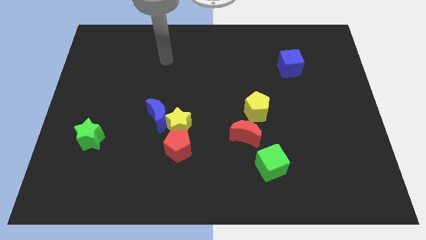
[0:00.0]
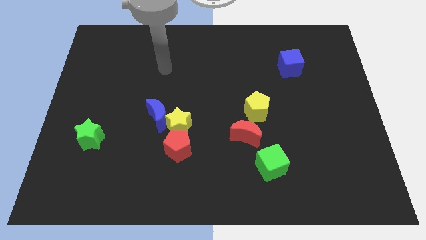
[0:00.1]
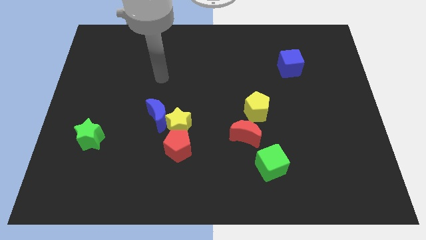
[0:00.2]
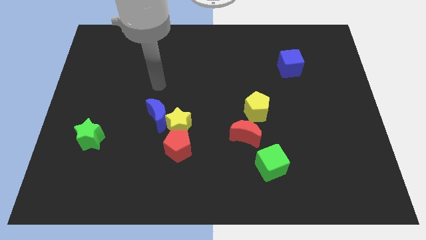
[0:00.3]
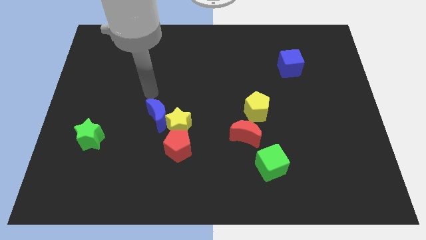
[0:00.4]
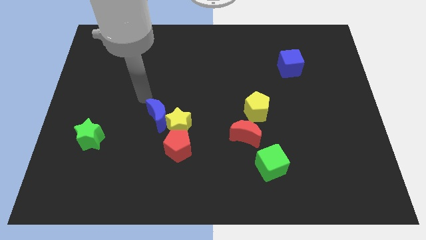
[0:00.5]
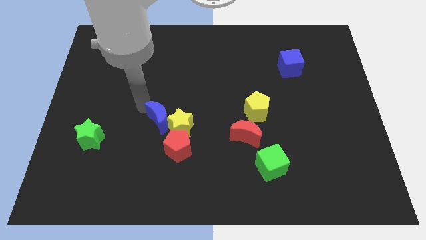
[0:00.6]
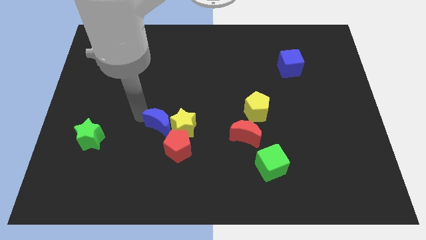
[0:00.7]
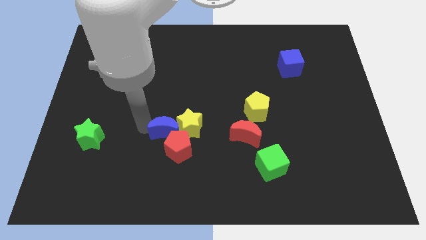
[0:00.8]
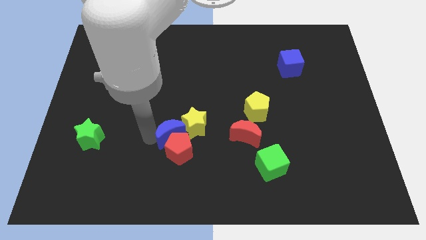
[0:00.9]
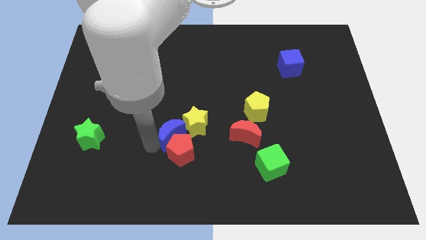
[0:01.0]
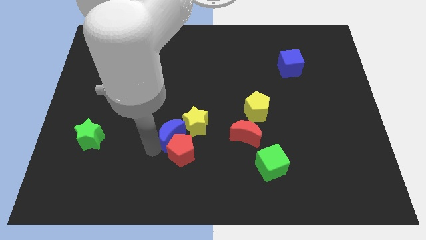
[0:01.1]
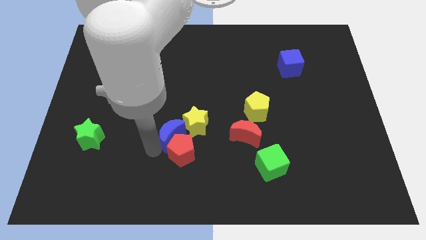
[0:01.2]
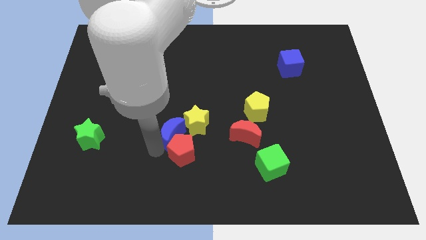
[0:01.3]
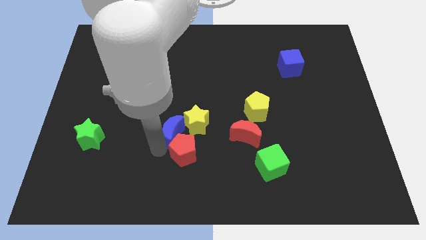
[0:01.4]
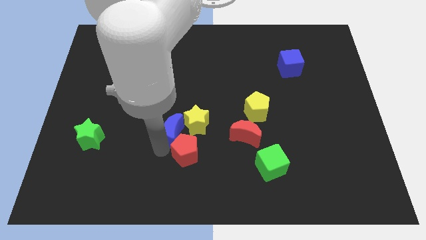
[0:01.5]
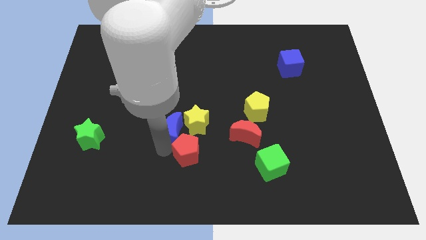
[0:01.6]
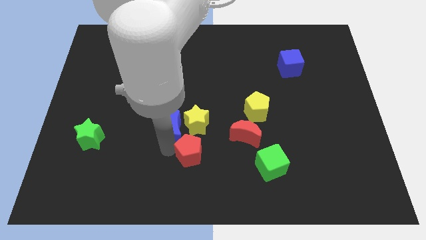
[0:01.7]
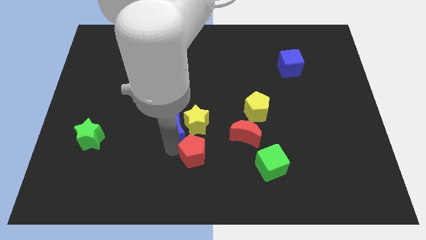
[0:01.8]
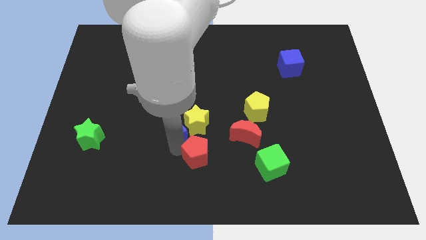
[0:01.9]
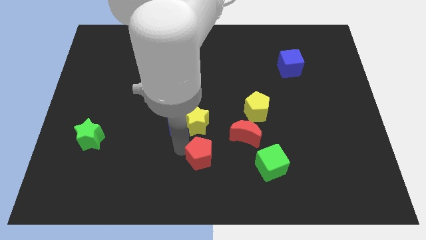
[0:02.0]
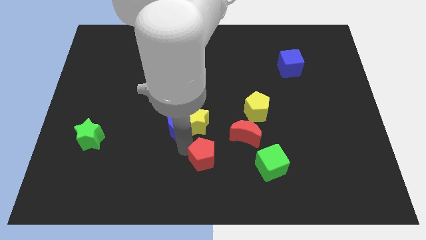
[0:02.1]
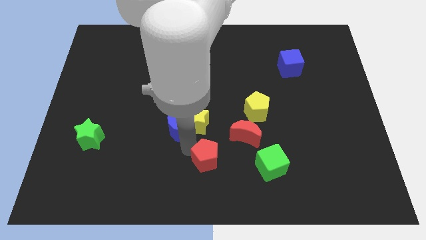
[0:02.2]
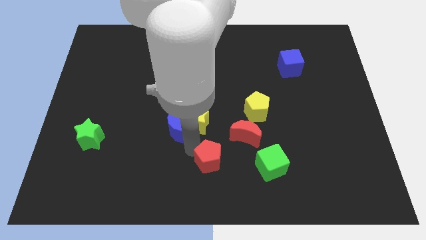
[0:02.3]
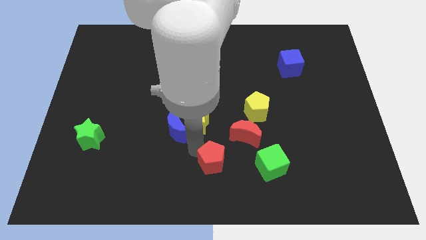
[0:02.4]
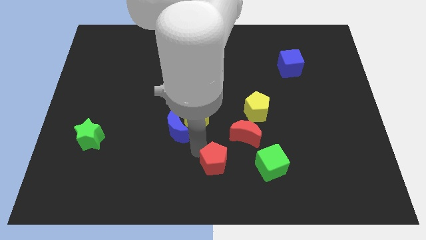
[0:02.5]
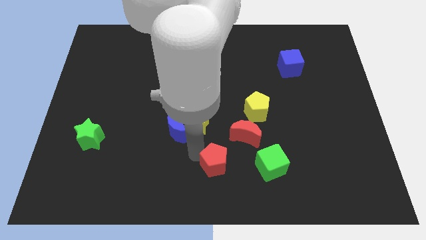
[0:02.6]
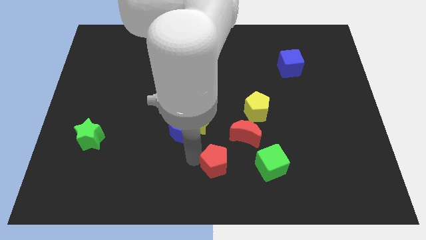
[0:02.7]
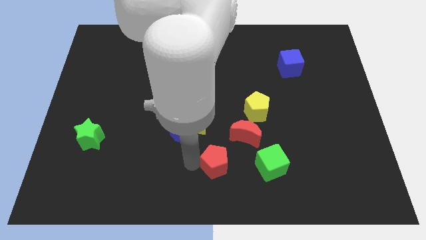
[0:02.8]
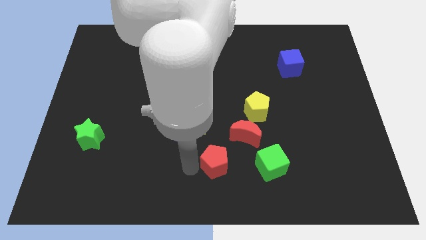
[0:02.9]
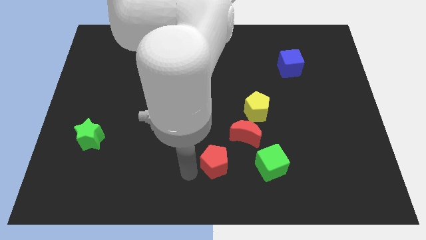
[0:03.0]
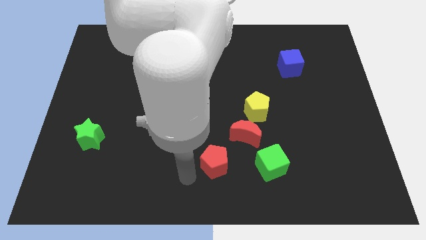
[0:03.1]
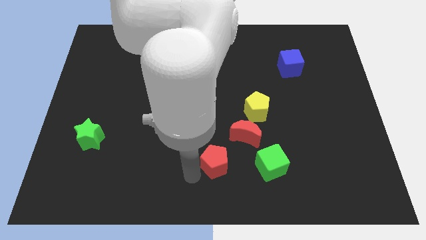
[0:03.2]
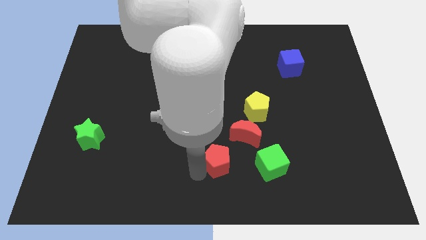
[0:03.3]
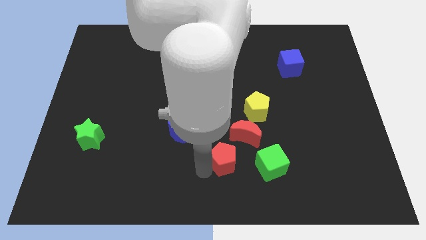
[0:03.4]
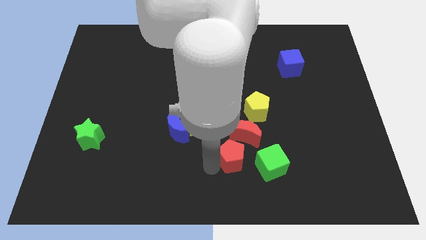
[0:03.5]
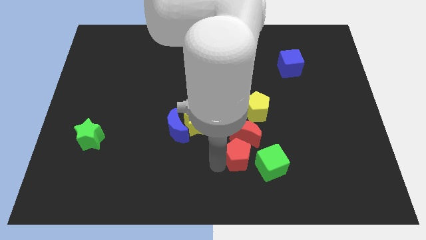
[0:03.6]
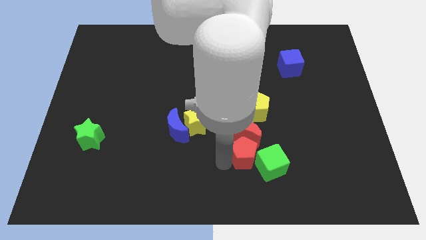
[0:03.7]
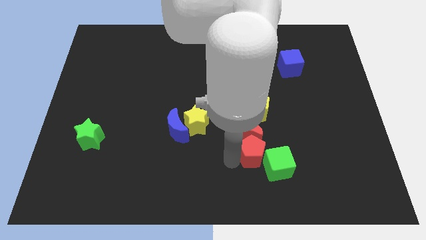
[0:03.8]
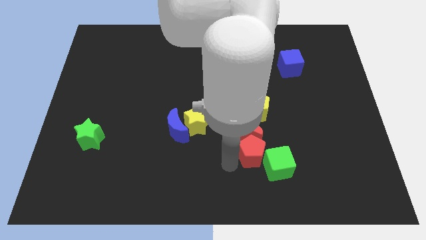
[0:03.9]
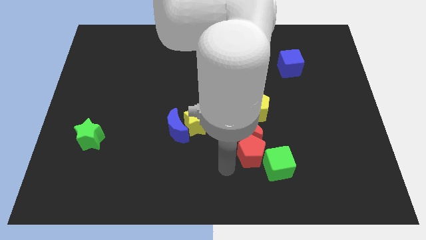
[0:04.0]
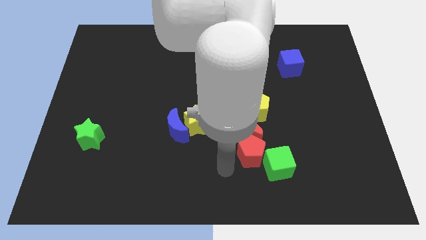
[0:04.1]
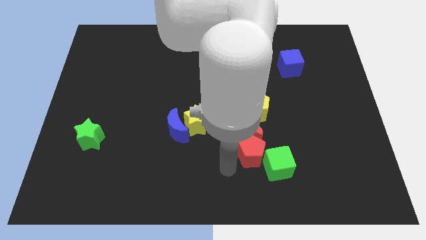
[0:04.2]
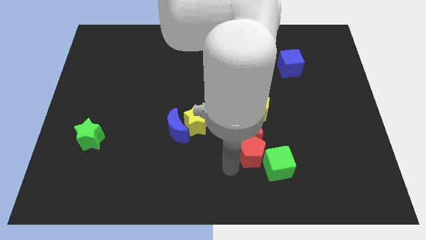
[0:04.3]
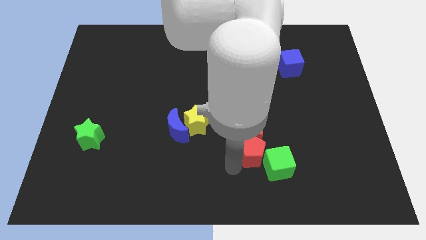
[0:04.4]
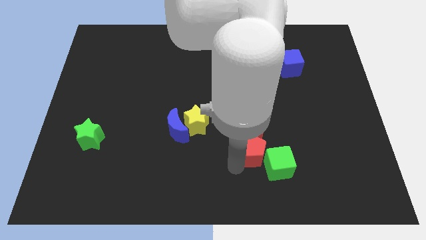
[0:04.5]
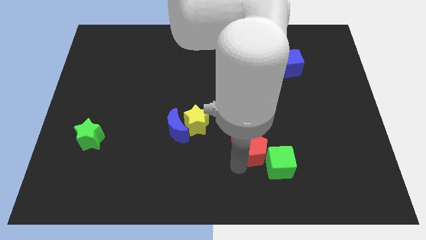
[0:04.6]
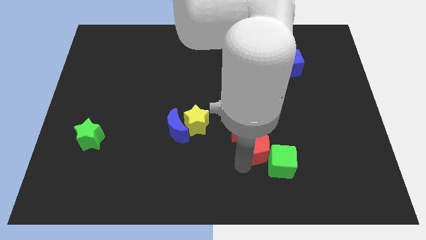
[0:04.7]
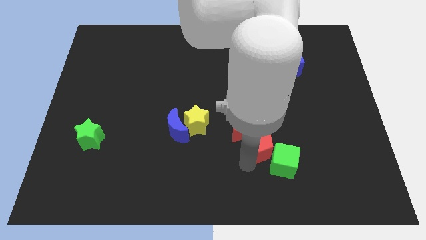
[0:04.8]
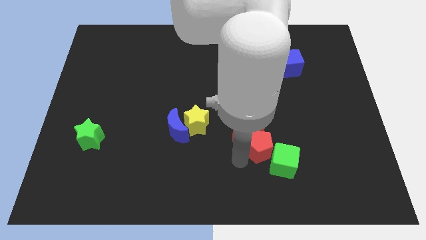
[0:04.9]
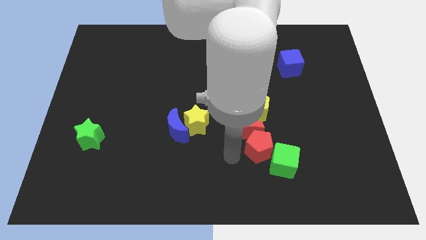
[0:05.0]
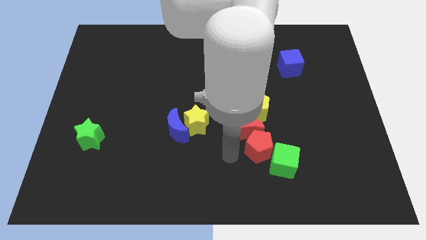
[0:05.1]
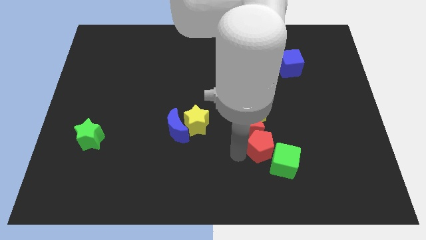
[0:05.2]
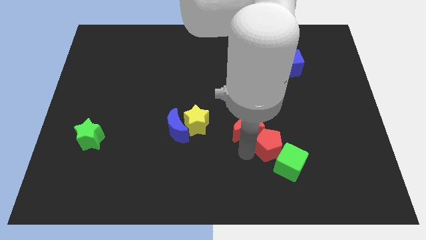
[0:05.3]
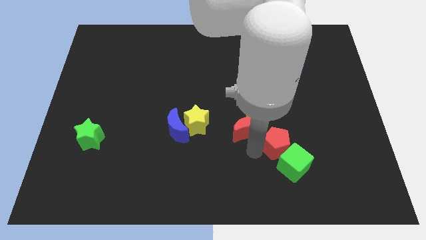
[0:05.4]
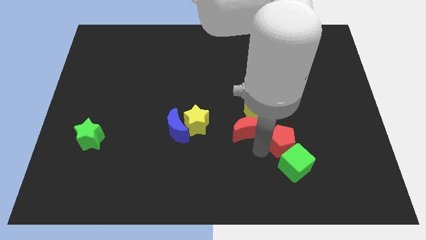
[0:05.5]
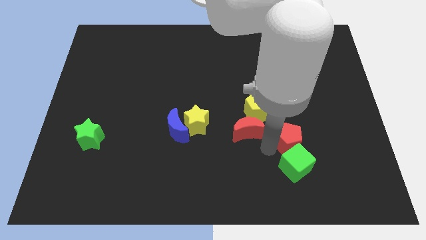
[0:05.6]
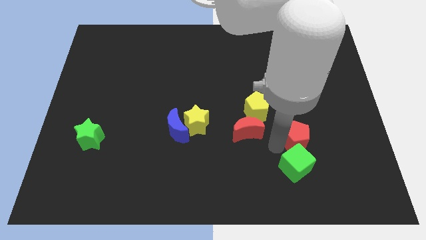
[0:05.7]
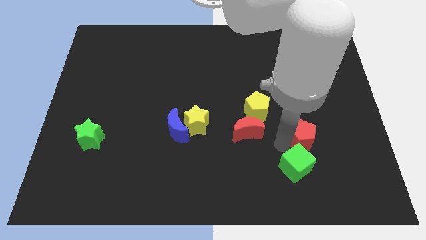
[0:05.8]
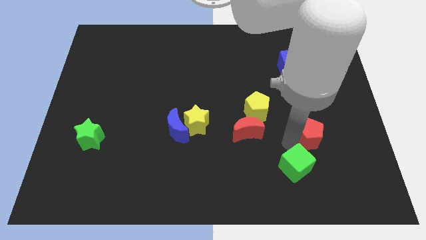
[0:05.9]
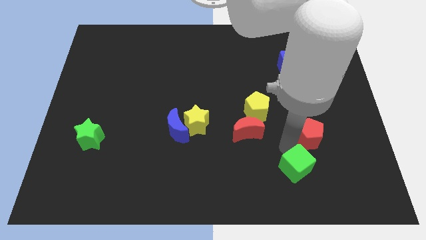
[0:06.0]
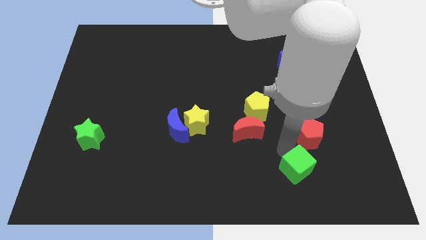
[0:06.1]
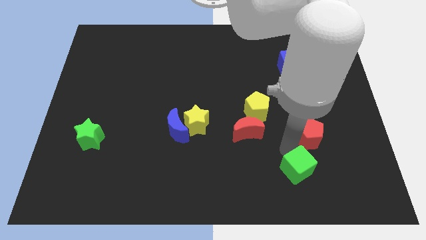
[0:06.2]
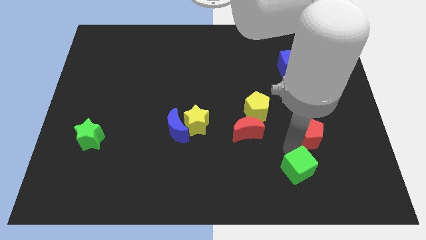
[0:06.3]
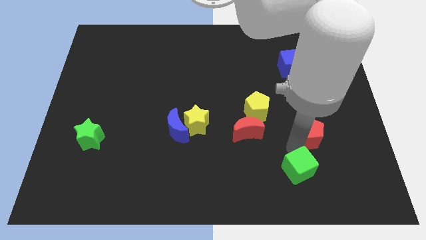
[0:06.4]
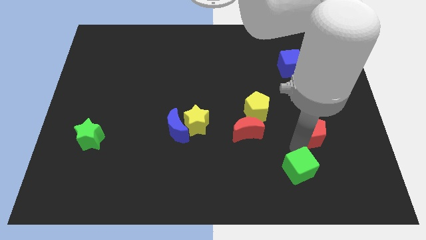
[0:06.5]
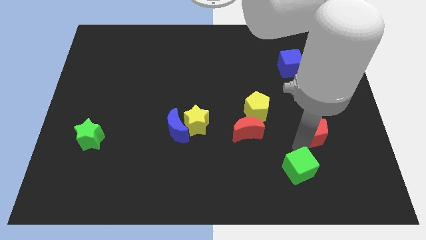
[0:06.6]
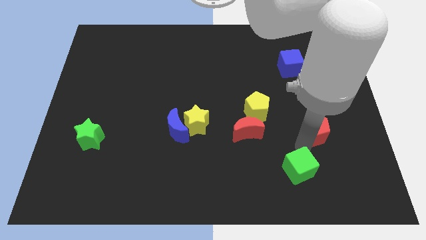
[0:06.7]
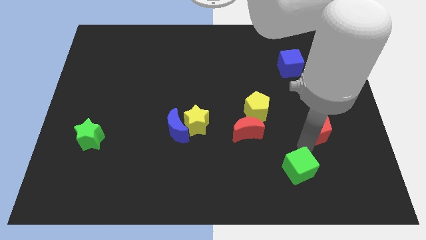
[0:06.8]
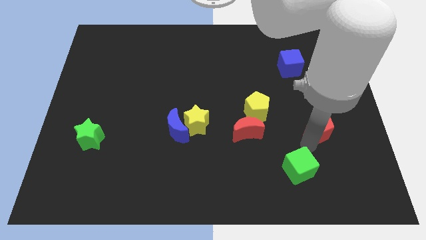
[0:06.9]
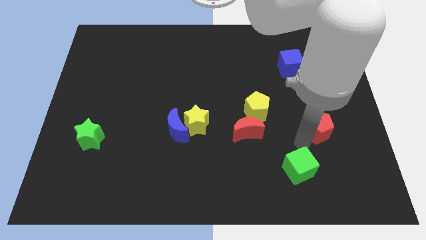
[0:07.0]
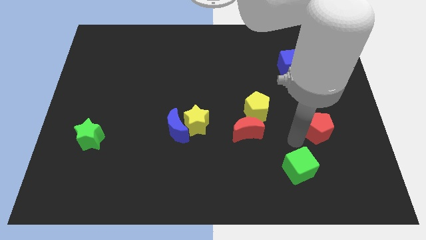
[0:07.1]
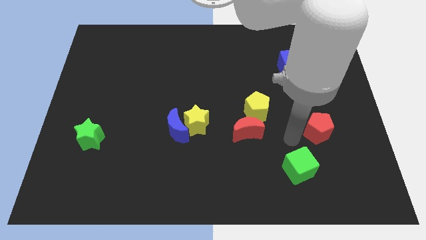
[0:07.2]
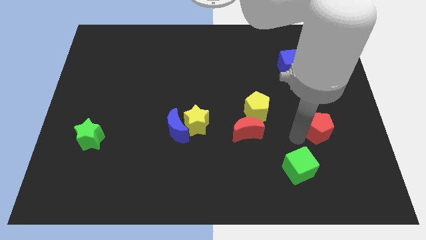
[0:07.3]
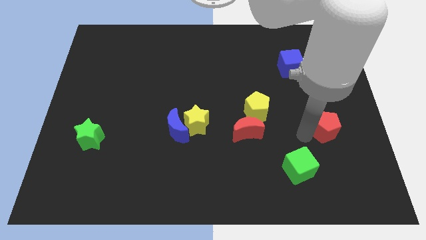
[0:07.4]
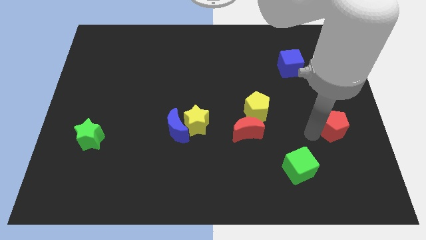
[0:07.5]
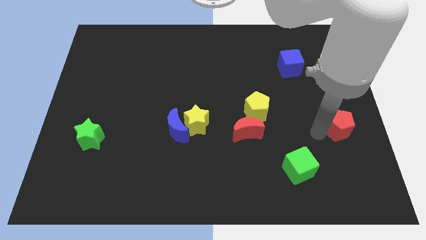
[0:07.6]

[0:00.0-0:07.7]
move the red pentagon to the center right
